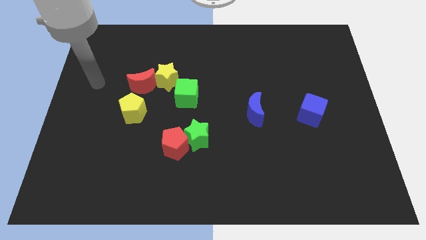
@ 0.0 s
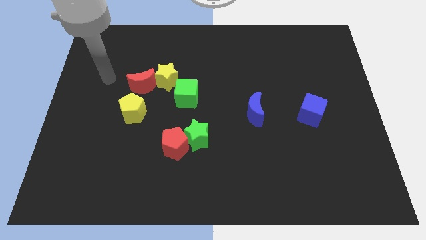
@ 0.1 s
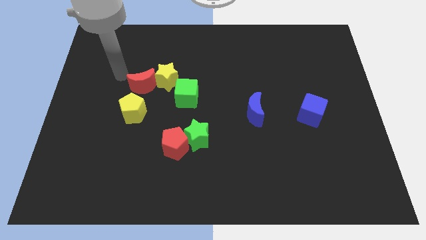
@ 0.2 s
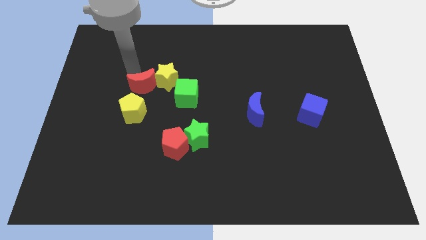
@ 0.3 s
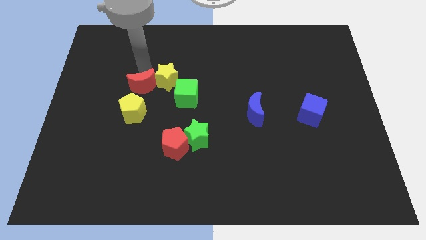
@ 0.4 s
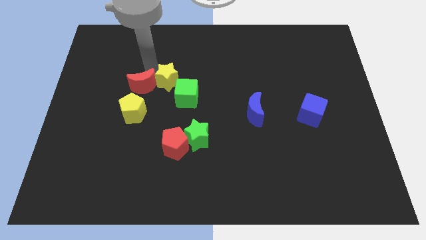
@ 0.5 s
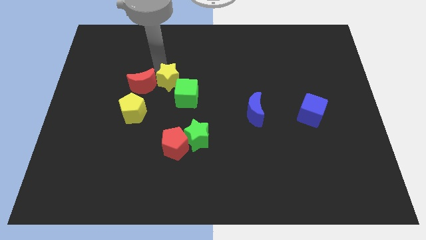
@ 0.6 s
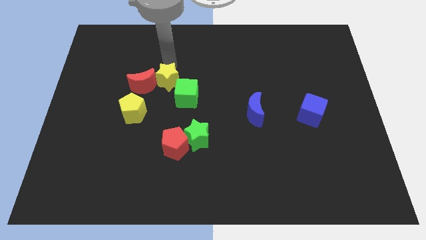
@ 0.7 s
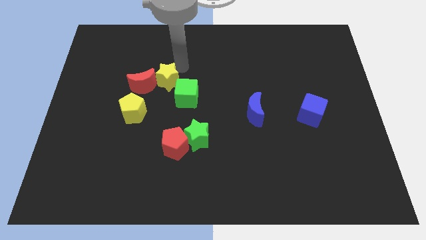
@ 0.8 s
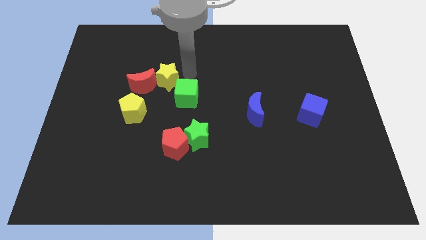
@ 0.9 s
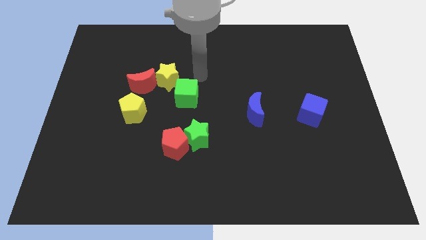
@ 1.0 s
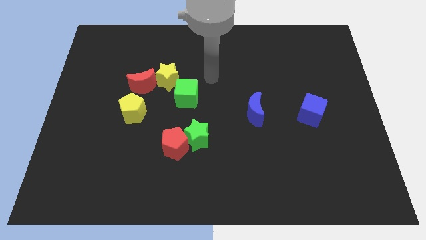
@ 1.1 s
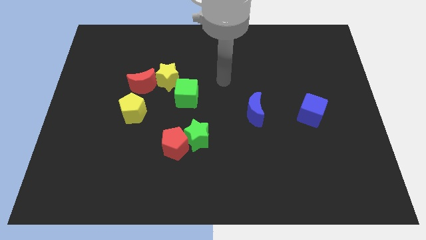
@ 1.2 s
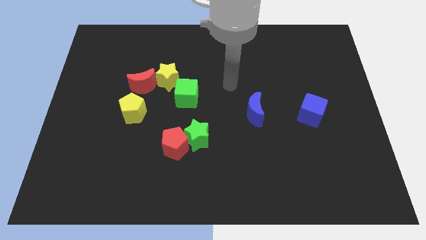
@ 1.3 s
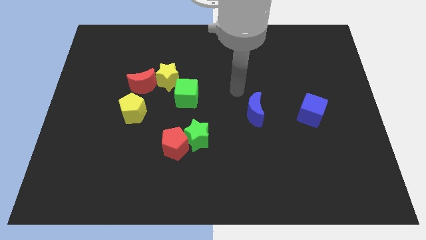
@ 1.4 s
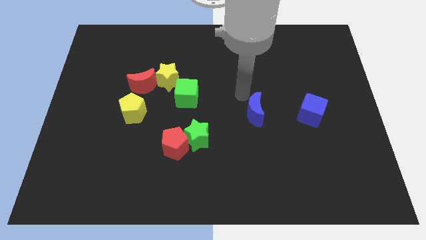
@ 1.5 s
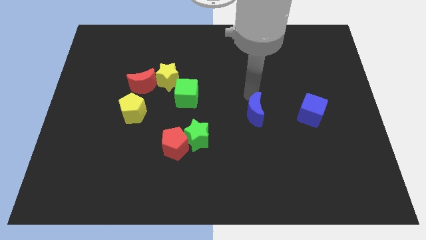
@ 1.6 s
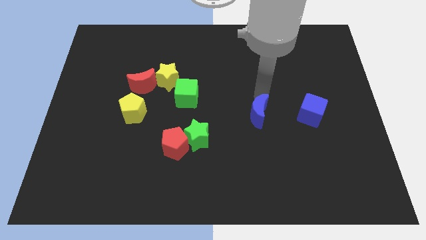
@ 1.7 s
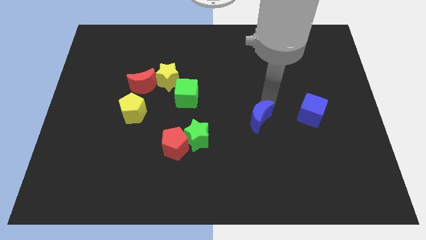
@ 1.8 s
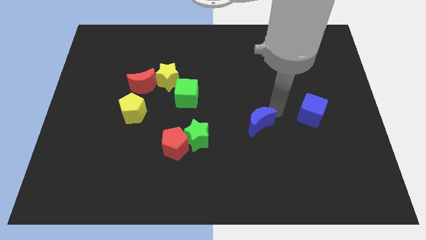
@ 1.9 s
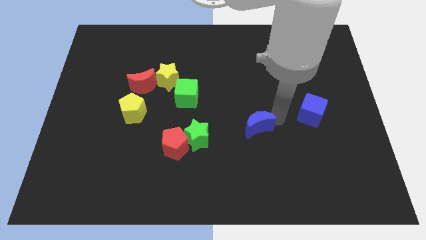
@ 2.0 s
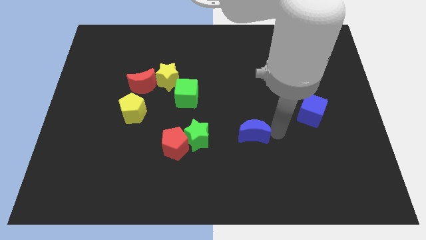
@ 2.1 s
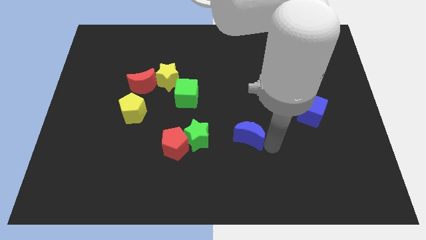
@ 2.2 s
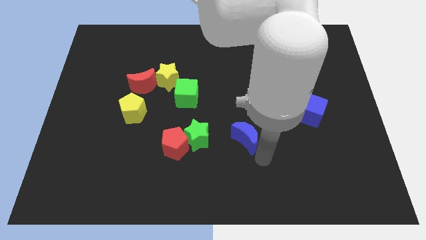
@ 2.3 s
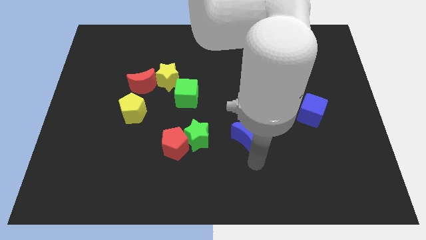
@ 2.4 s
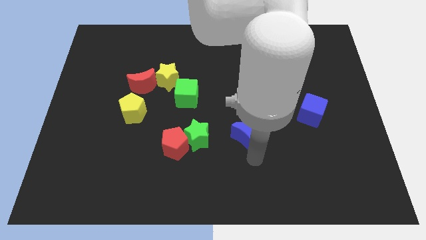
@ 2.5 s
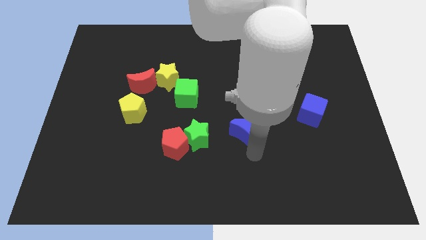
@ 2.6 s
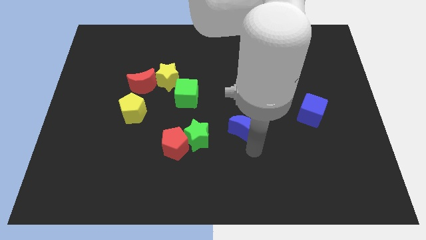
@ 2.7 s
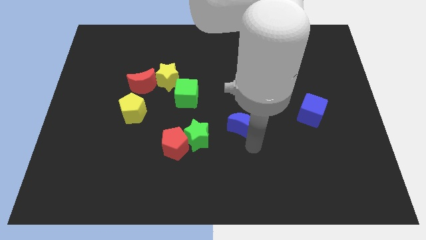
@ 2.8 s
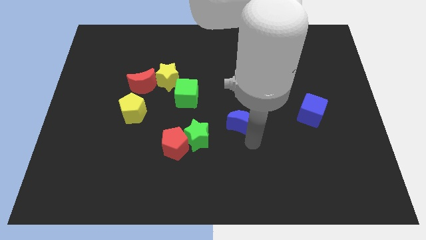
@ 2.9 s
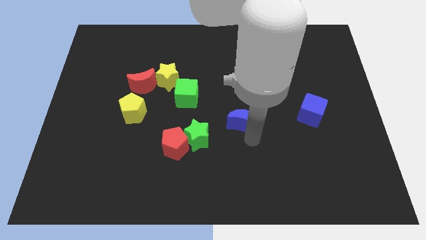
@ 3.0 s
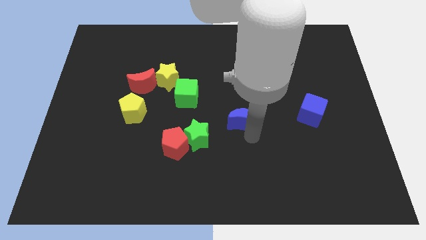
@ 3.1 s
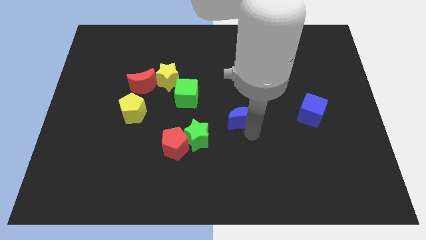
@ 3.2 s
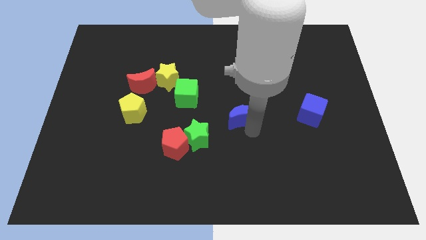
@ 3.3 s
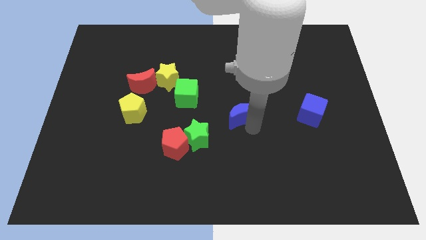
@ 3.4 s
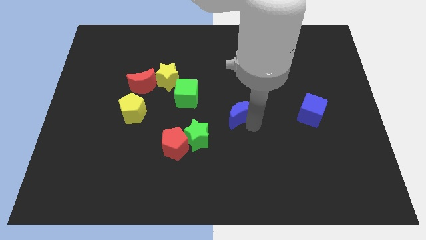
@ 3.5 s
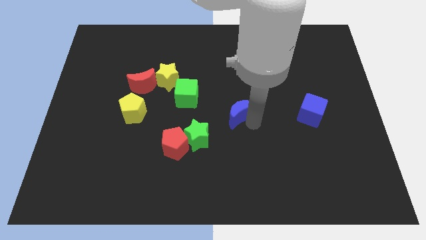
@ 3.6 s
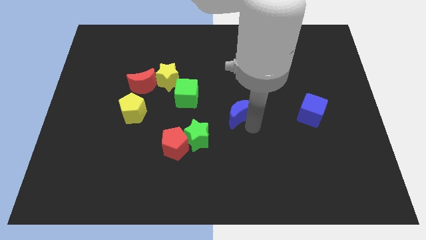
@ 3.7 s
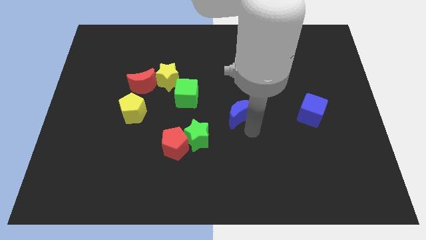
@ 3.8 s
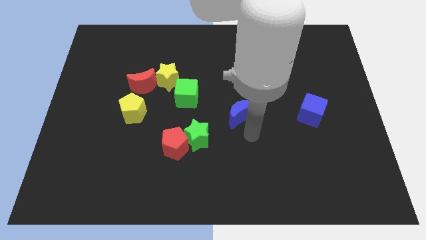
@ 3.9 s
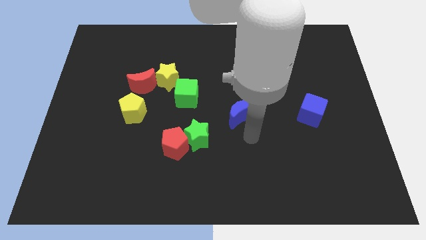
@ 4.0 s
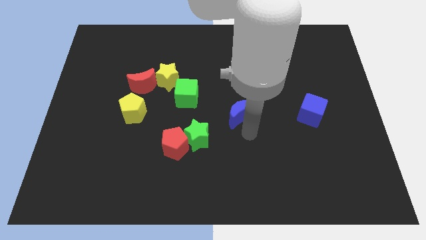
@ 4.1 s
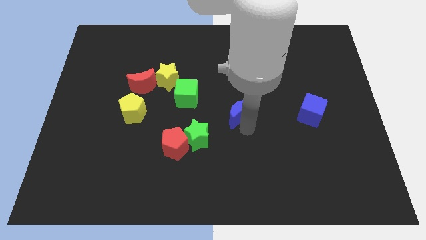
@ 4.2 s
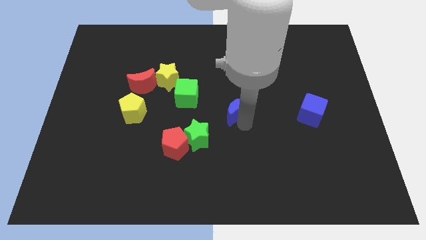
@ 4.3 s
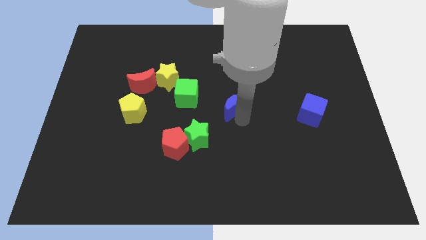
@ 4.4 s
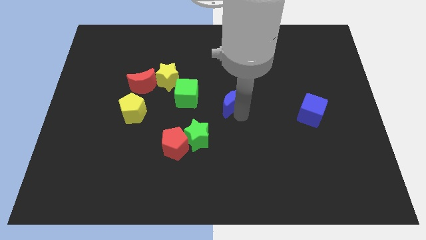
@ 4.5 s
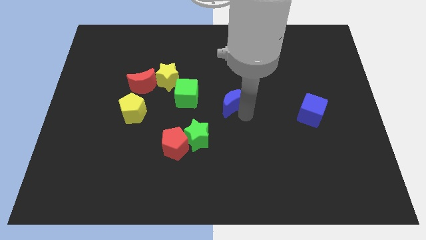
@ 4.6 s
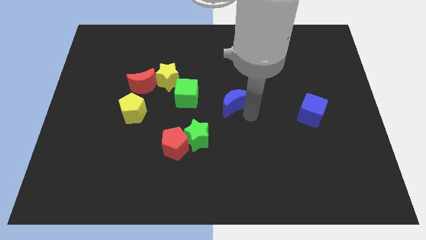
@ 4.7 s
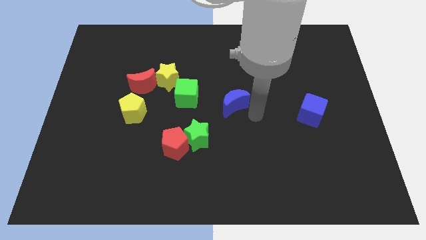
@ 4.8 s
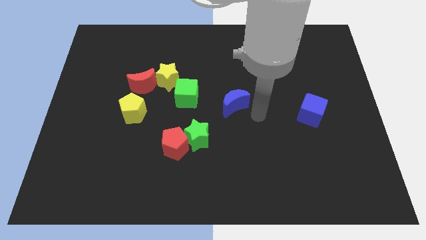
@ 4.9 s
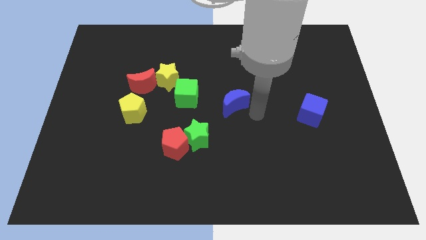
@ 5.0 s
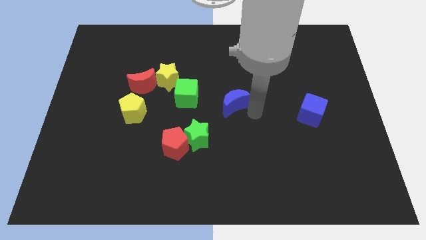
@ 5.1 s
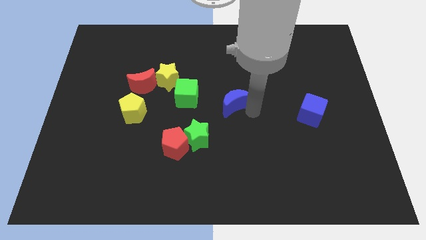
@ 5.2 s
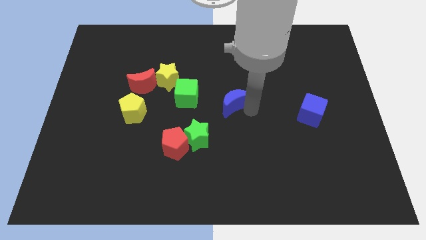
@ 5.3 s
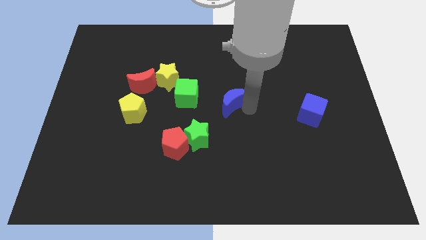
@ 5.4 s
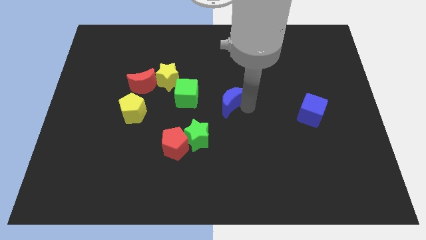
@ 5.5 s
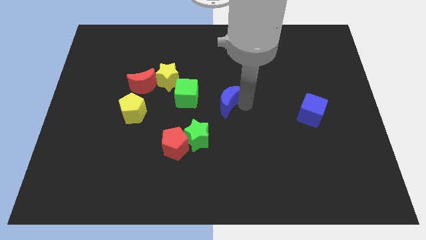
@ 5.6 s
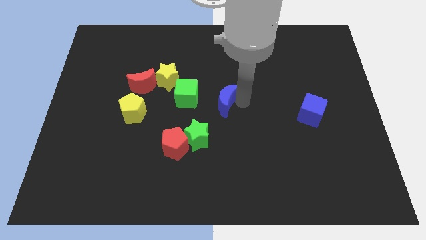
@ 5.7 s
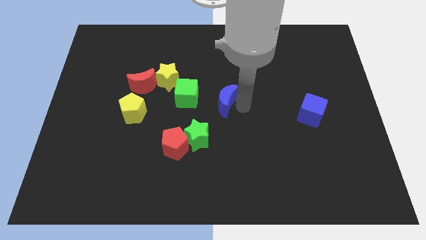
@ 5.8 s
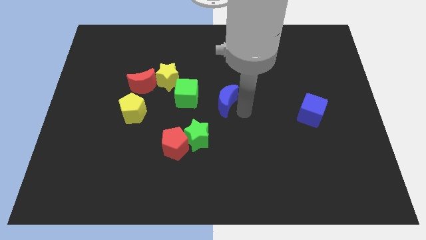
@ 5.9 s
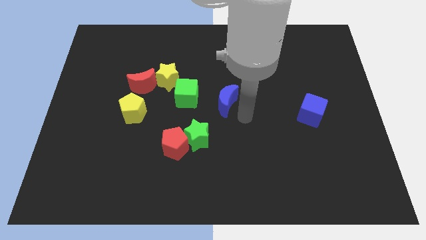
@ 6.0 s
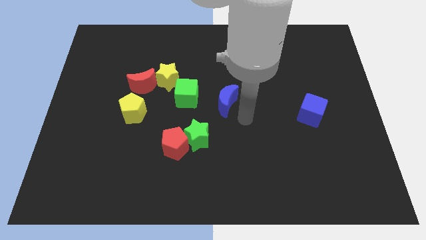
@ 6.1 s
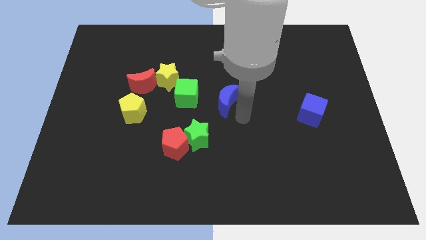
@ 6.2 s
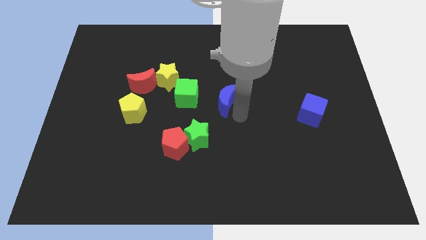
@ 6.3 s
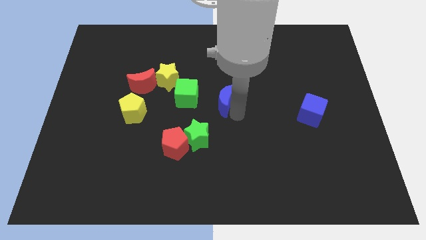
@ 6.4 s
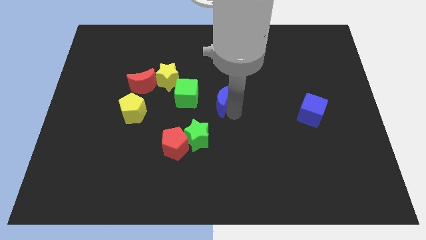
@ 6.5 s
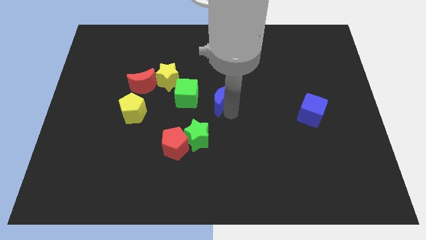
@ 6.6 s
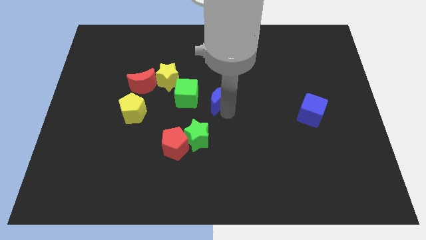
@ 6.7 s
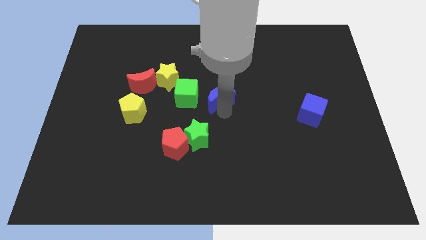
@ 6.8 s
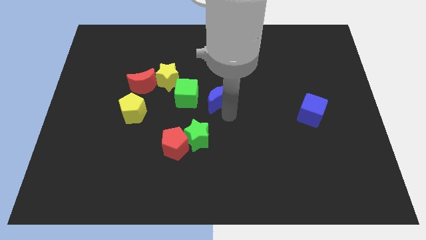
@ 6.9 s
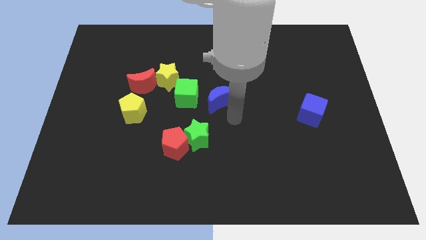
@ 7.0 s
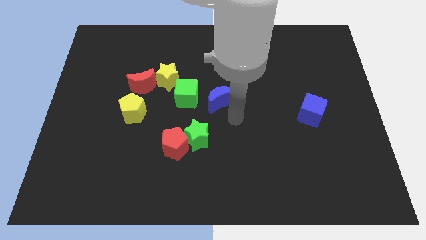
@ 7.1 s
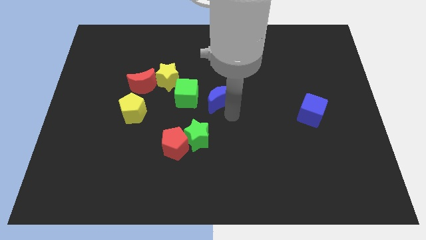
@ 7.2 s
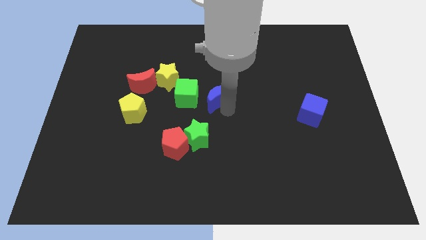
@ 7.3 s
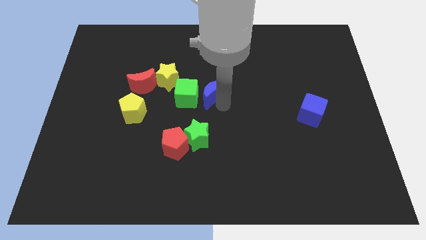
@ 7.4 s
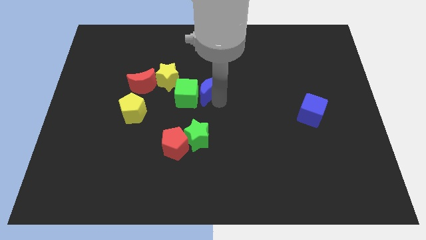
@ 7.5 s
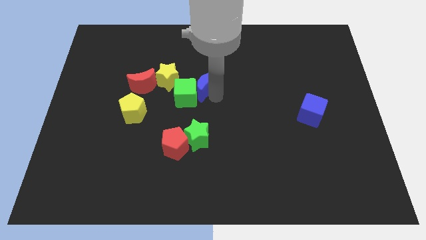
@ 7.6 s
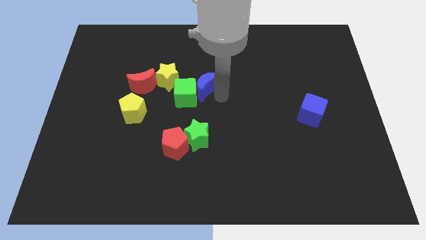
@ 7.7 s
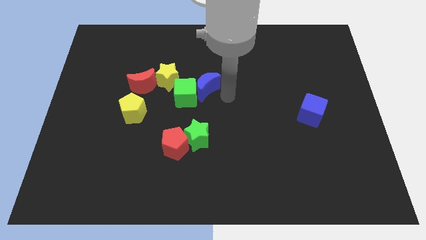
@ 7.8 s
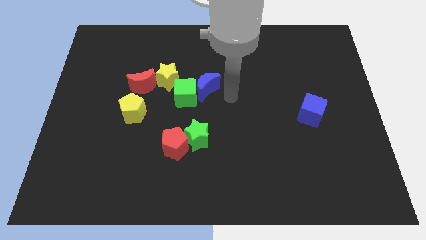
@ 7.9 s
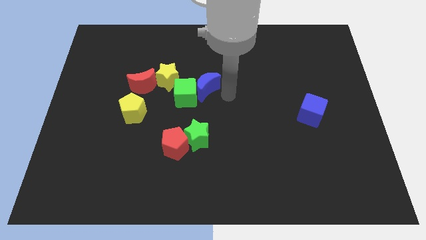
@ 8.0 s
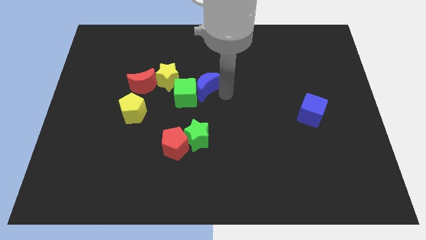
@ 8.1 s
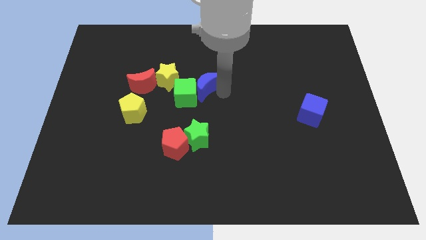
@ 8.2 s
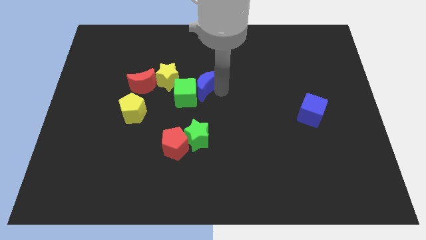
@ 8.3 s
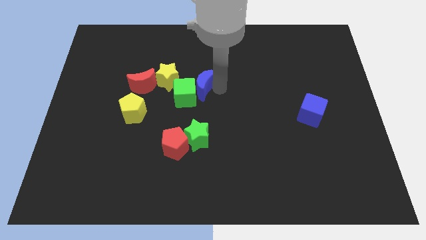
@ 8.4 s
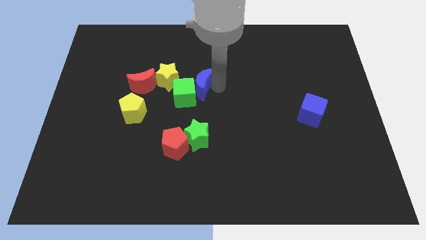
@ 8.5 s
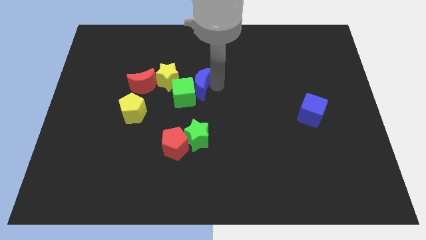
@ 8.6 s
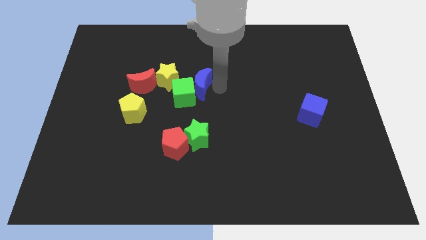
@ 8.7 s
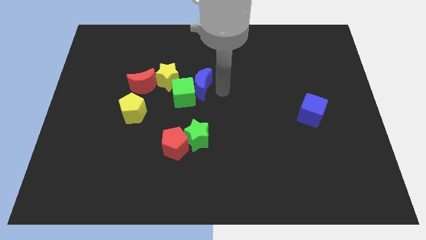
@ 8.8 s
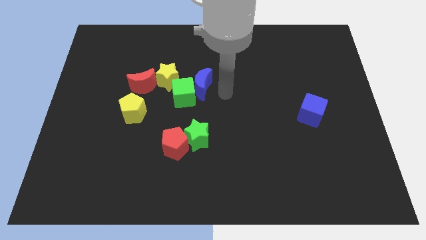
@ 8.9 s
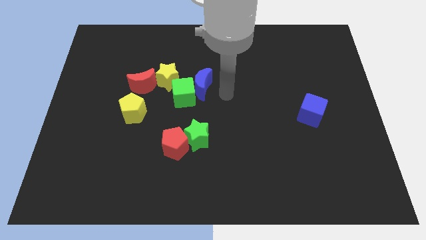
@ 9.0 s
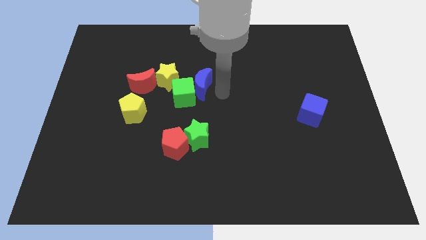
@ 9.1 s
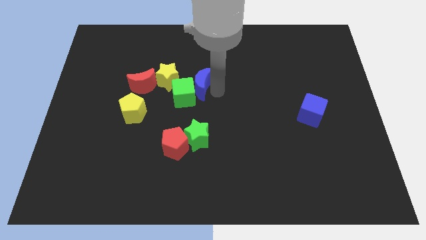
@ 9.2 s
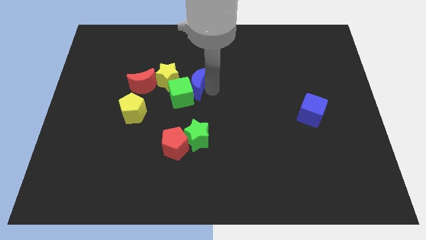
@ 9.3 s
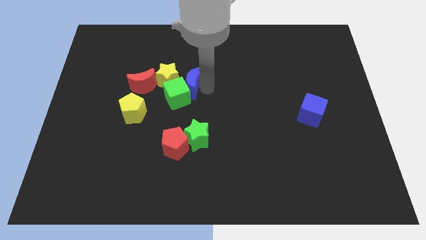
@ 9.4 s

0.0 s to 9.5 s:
slide the blue moon to the yellow star
